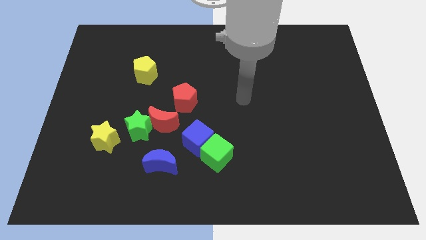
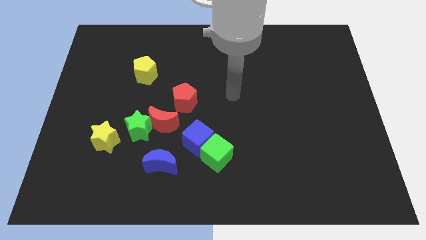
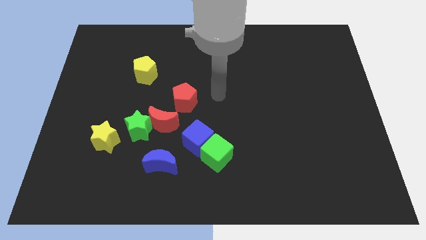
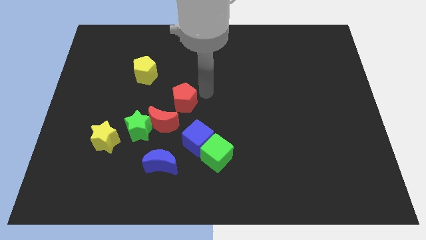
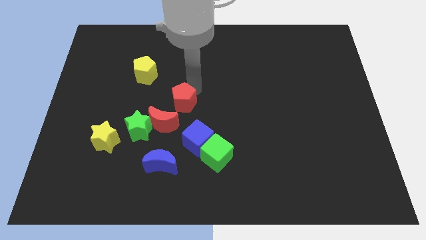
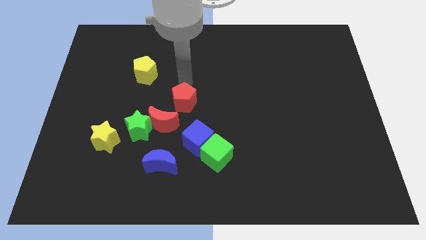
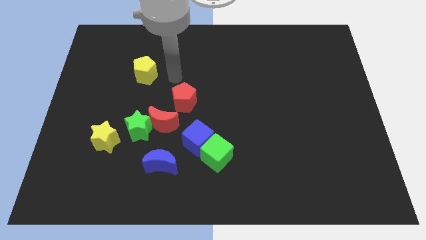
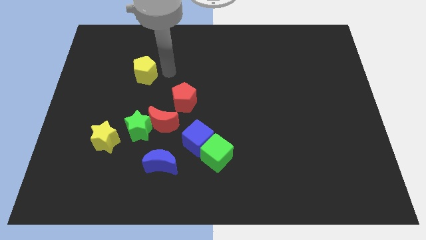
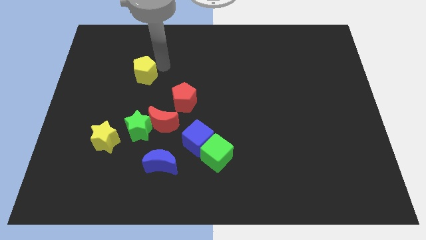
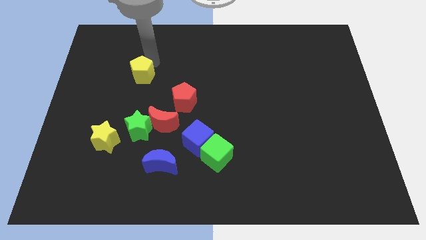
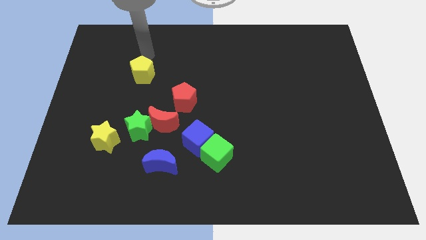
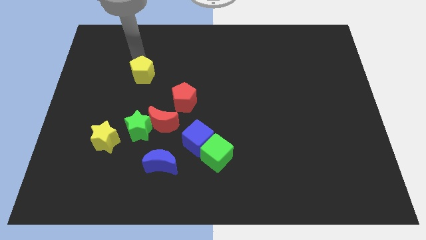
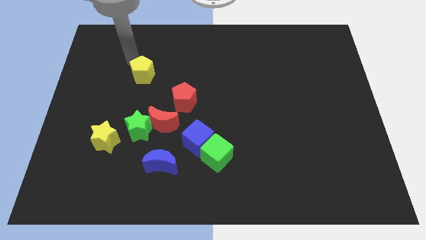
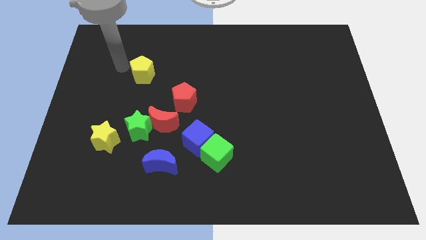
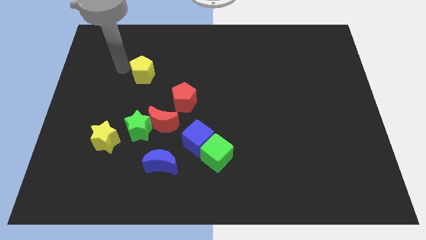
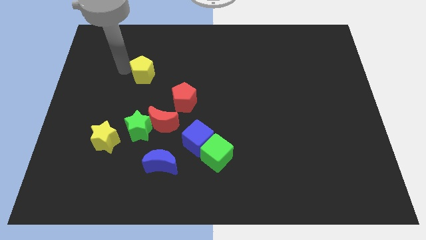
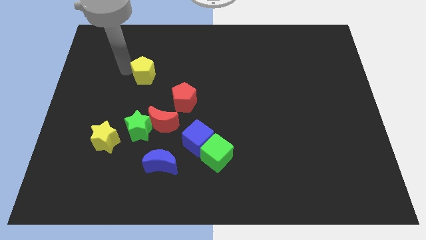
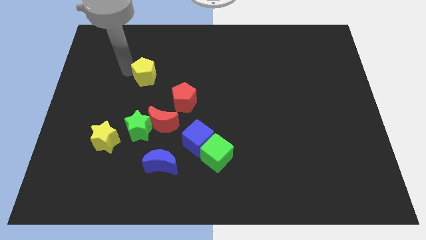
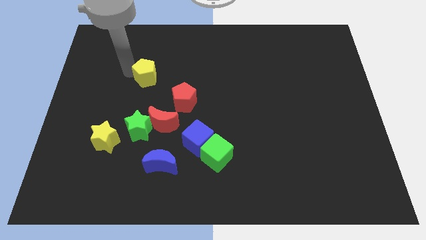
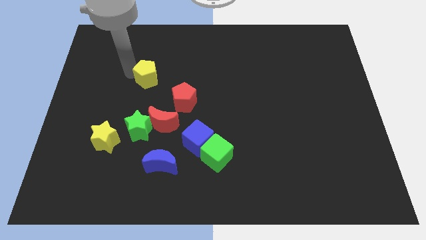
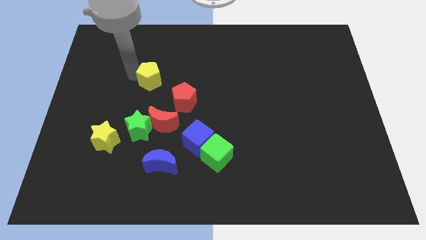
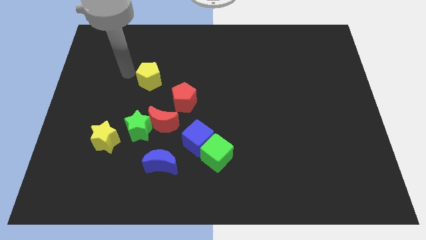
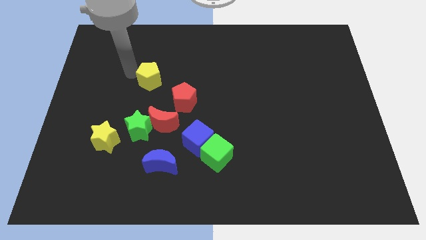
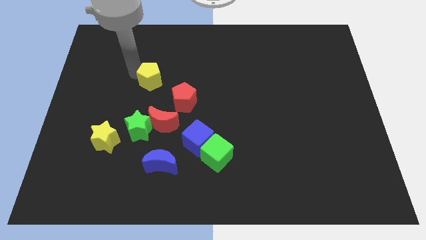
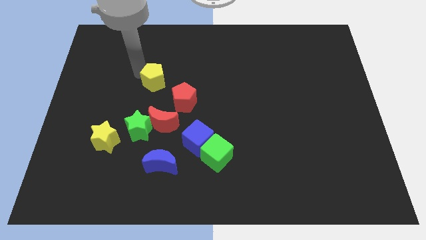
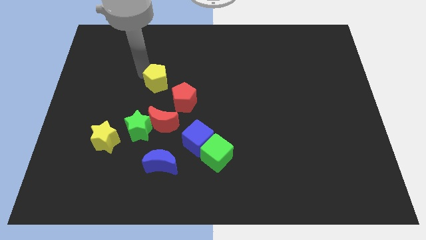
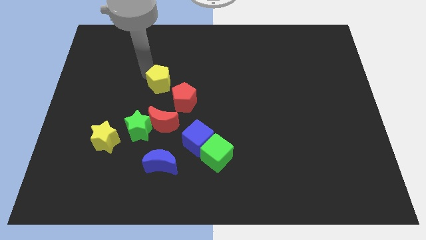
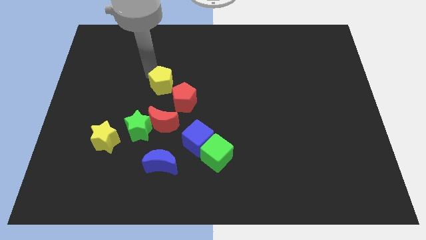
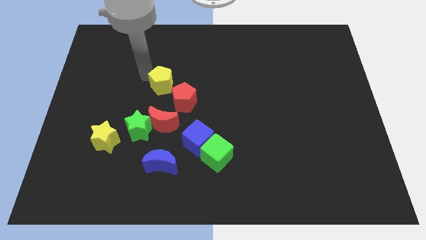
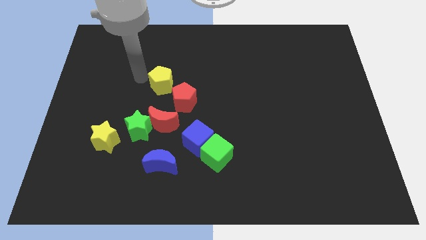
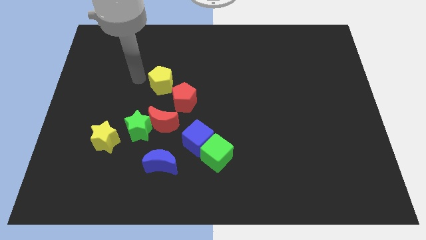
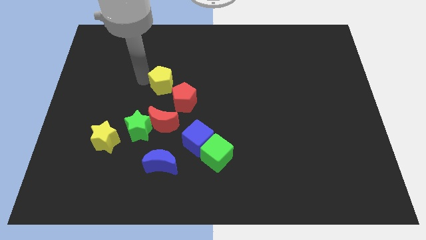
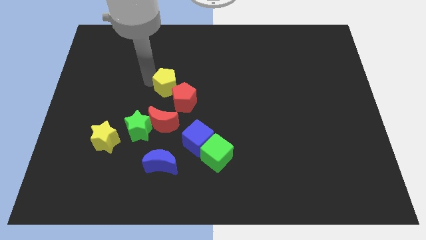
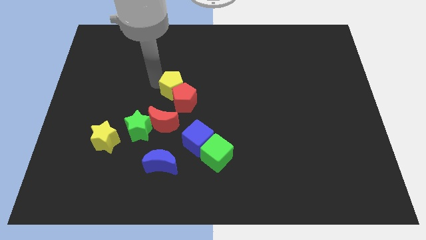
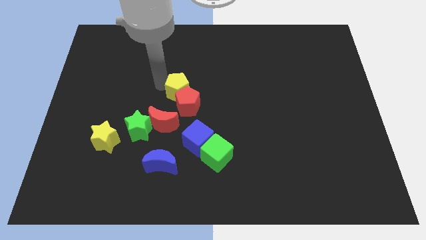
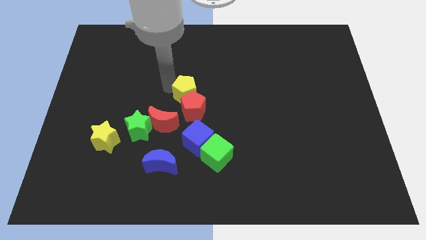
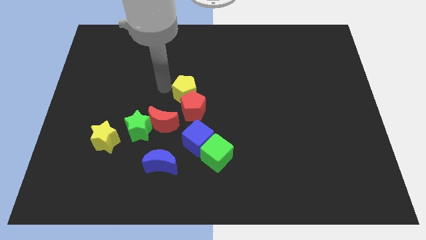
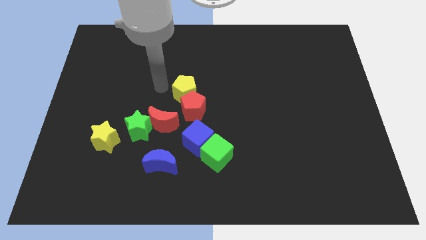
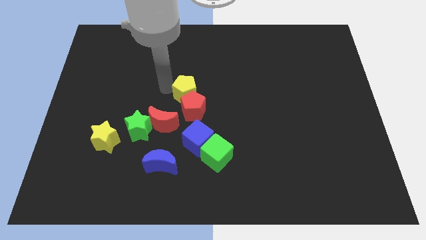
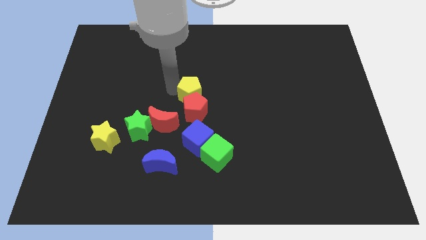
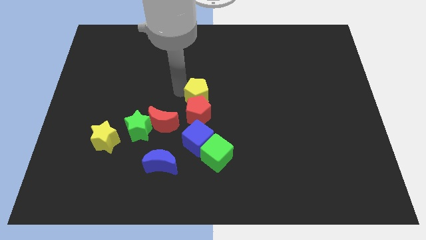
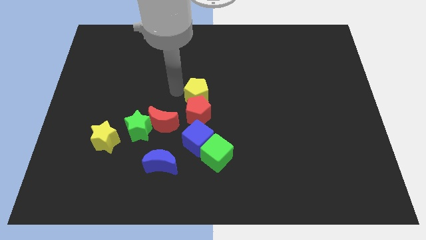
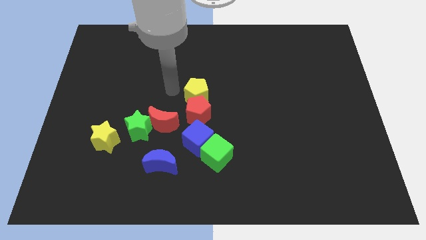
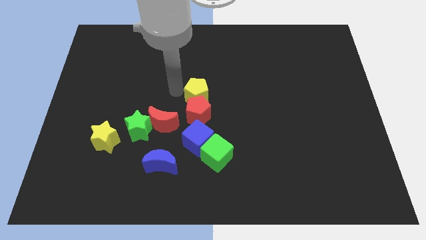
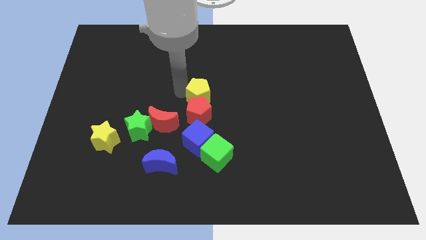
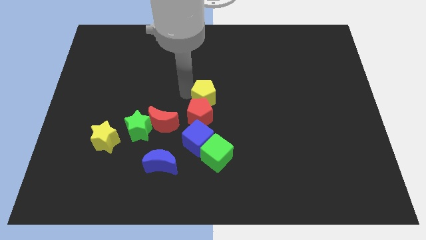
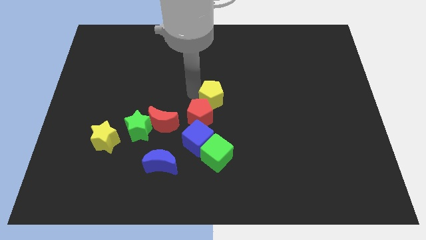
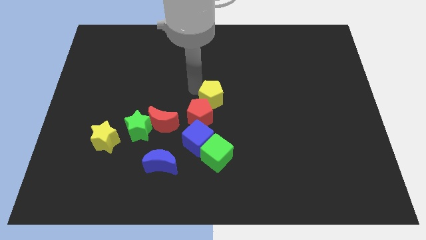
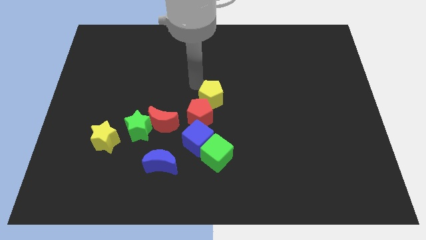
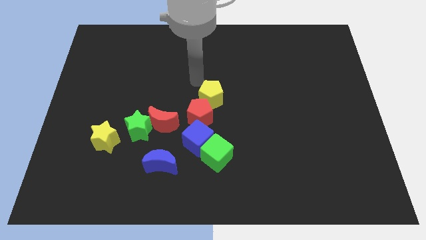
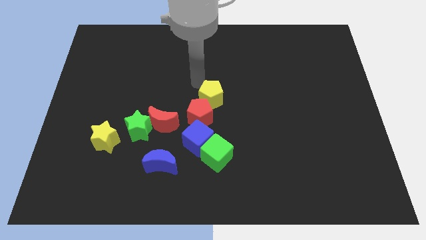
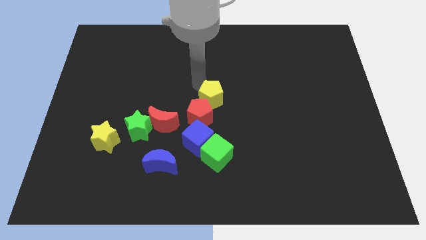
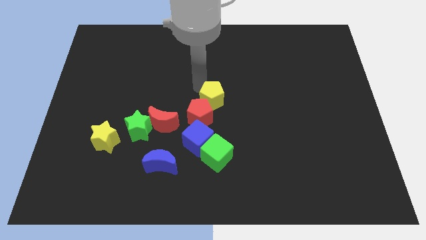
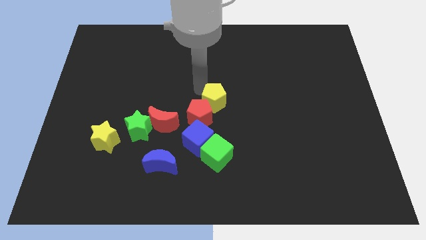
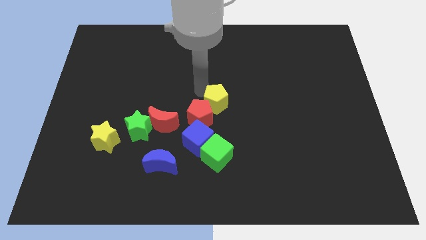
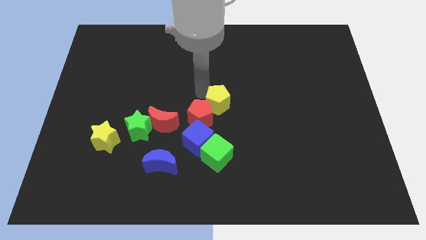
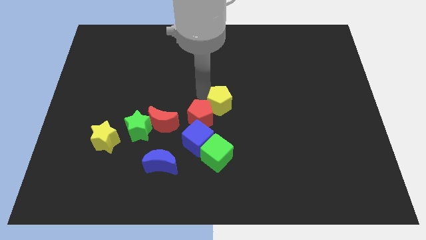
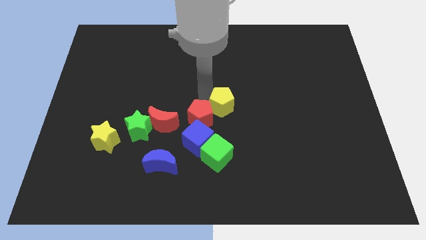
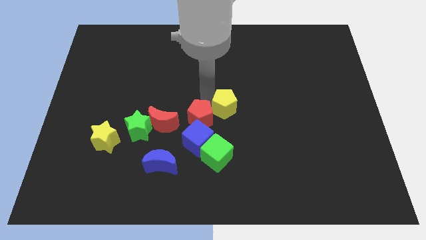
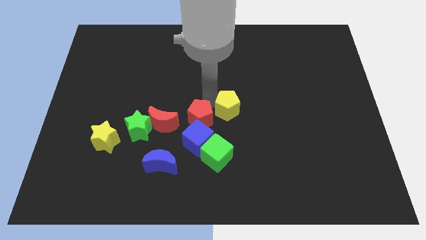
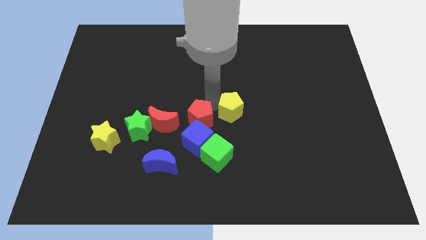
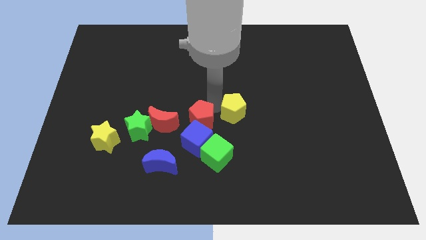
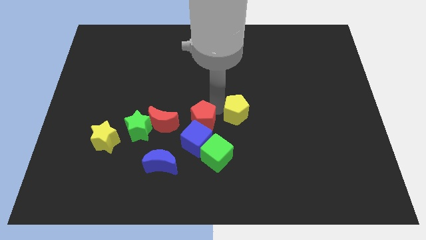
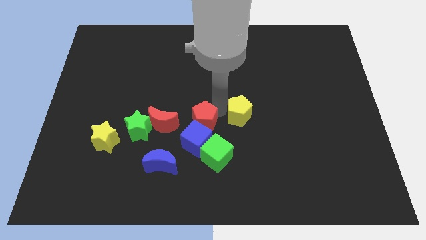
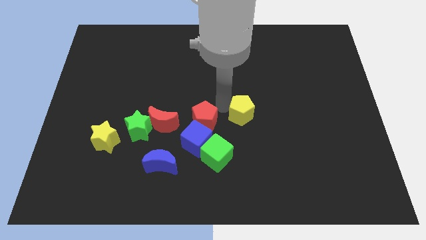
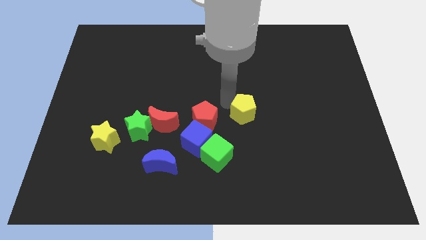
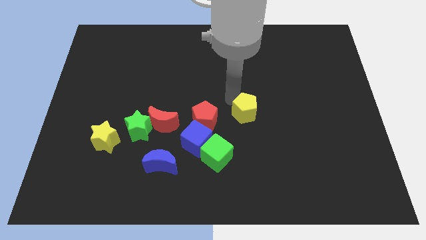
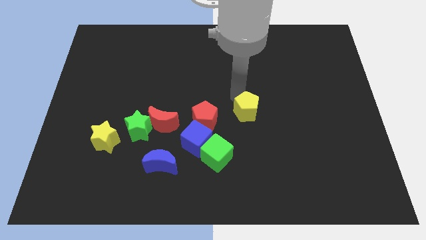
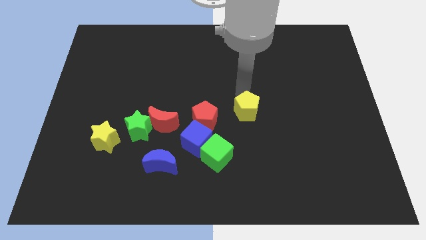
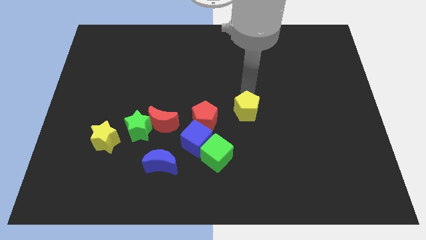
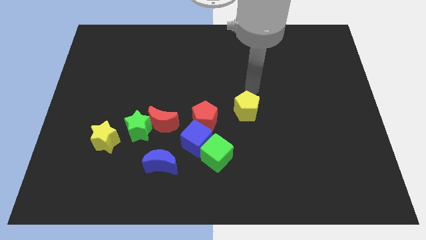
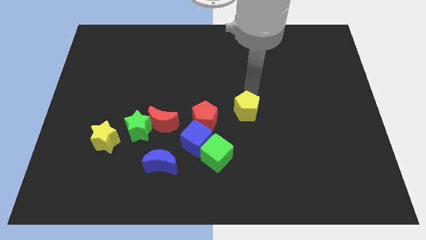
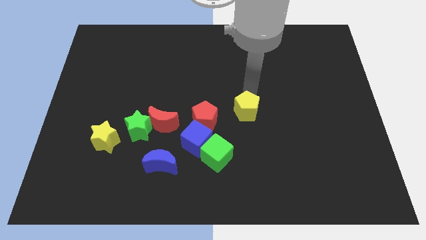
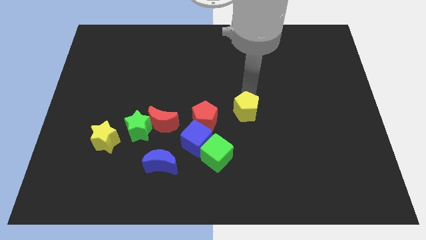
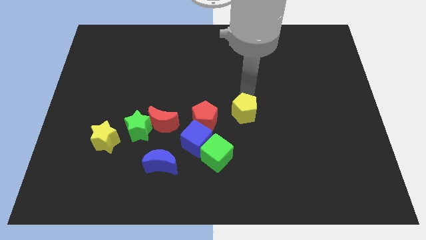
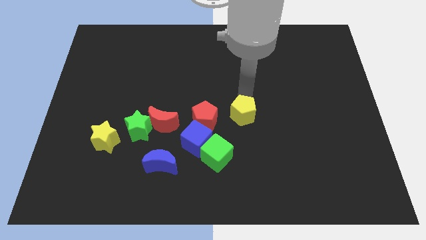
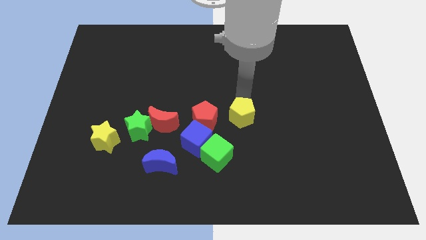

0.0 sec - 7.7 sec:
slide the yellow pentagon to the top right of the green cube
